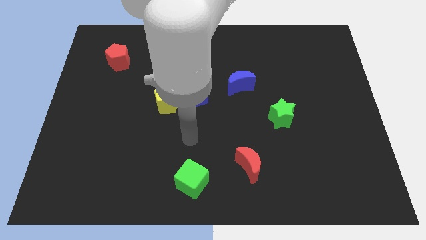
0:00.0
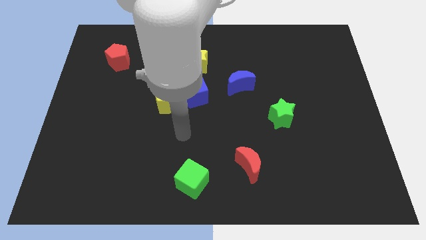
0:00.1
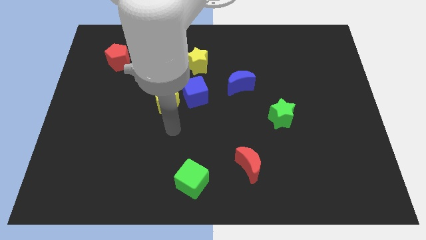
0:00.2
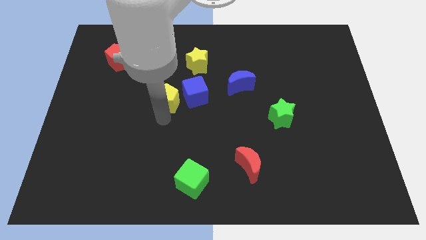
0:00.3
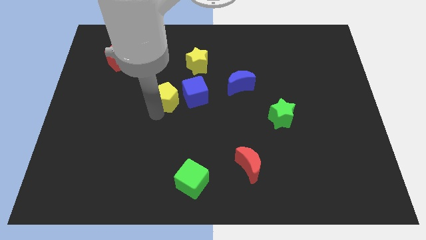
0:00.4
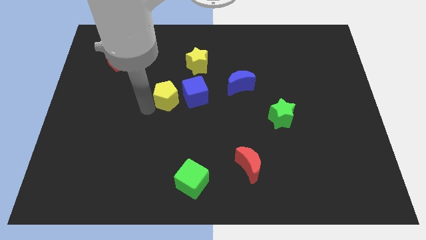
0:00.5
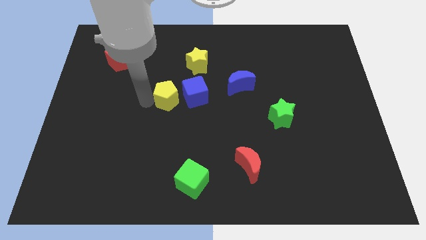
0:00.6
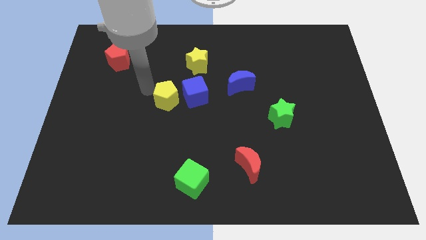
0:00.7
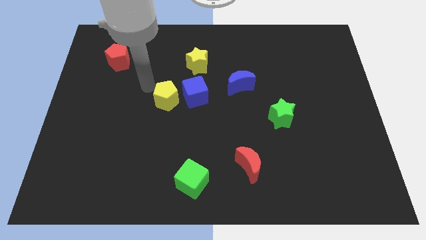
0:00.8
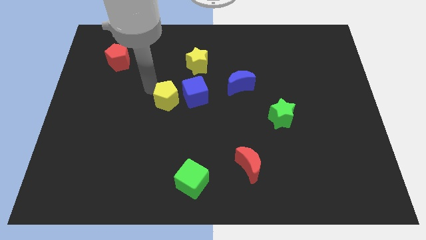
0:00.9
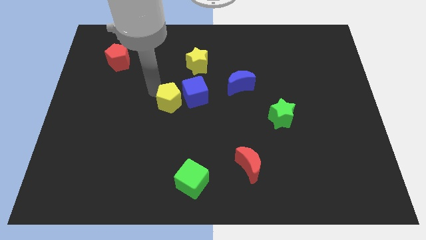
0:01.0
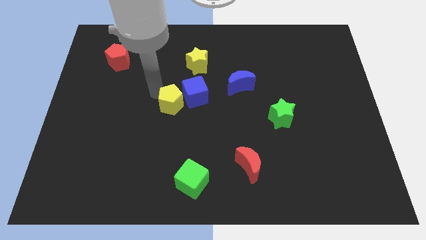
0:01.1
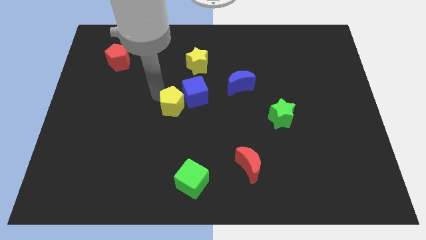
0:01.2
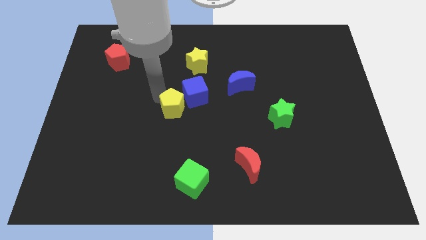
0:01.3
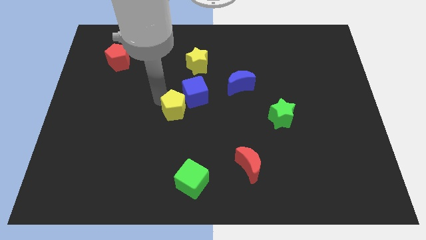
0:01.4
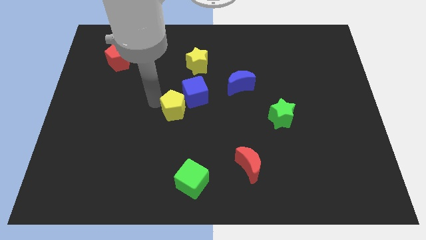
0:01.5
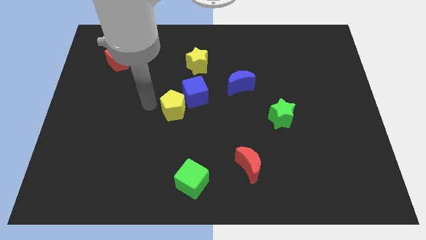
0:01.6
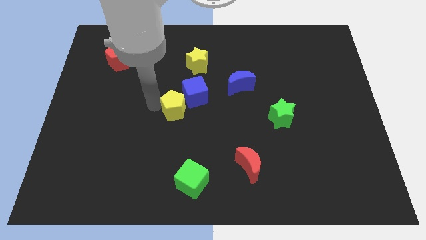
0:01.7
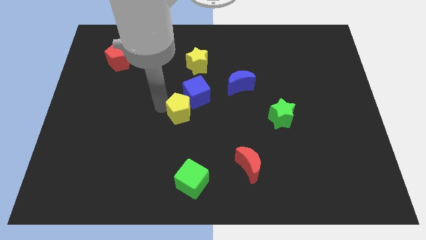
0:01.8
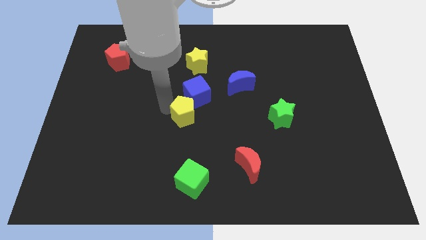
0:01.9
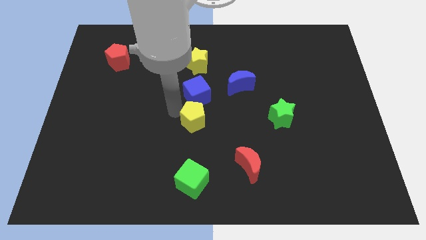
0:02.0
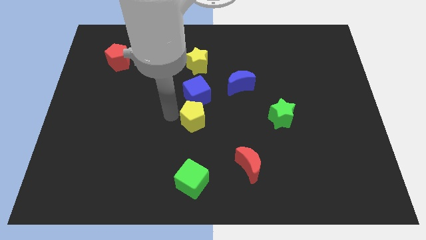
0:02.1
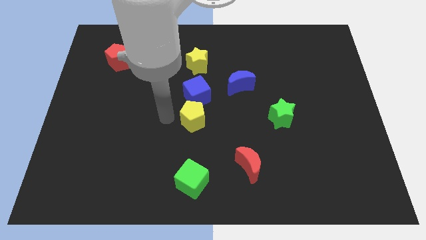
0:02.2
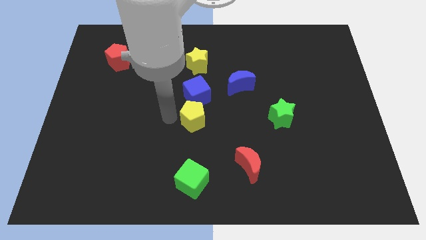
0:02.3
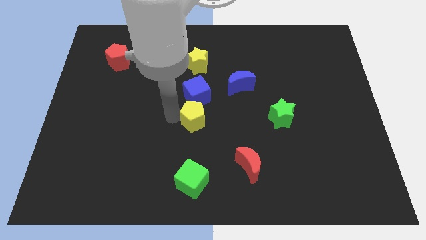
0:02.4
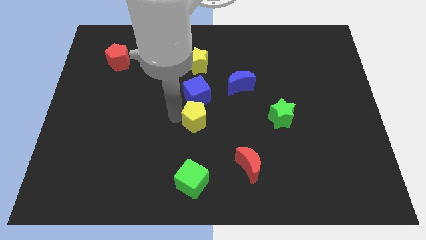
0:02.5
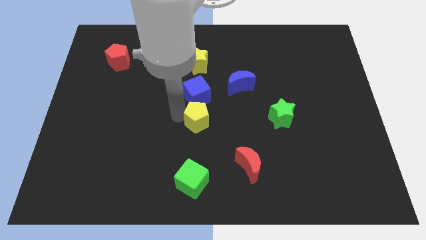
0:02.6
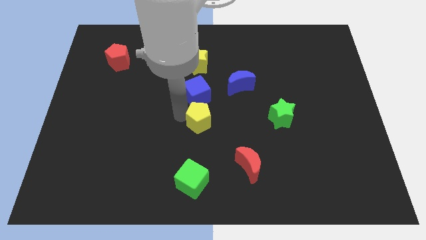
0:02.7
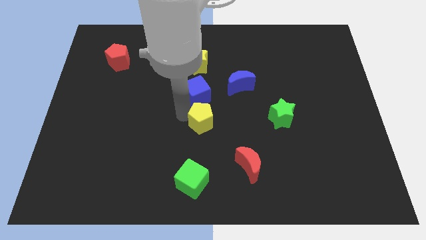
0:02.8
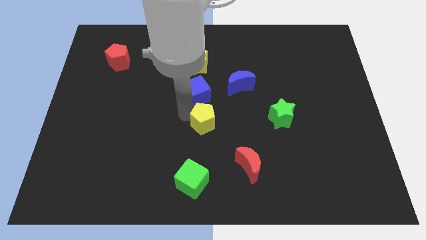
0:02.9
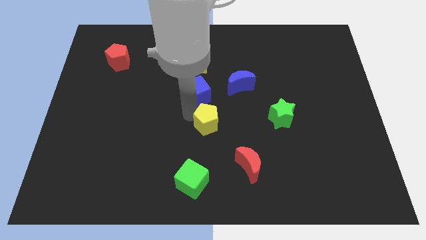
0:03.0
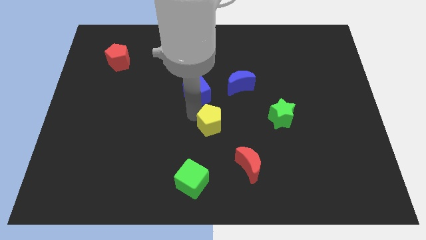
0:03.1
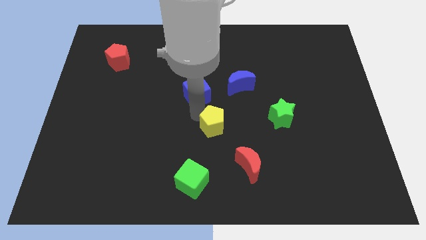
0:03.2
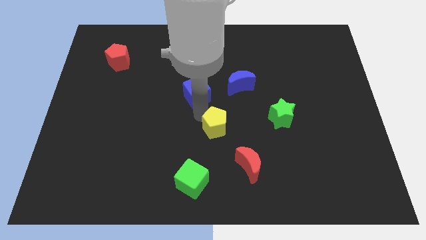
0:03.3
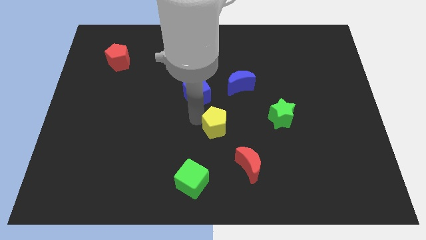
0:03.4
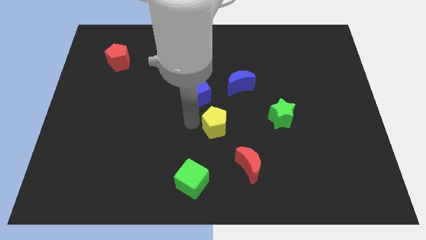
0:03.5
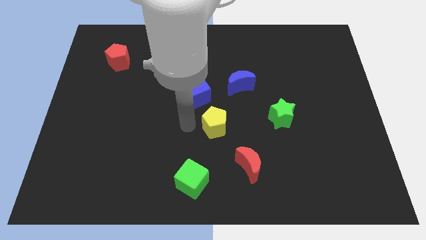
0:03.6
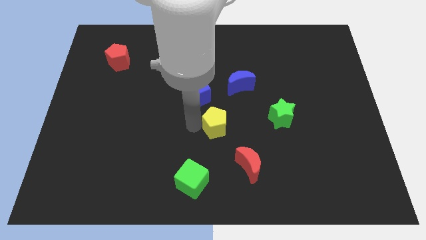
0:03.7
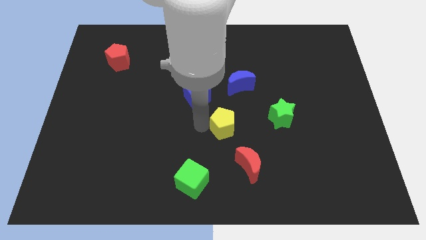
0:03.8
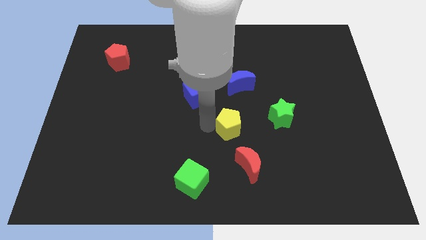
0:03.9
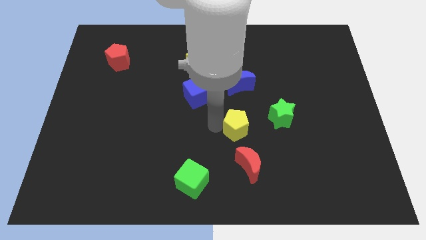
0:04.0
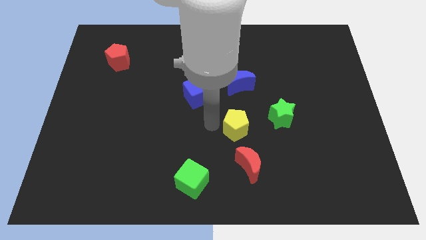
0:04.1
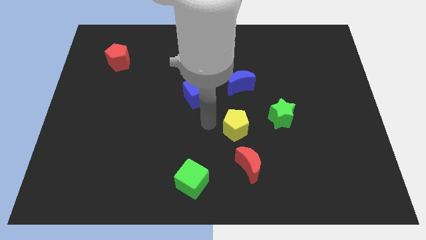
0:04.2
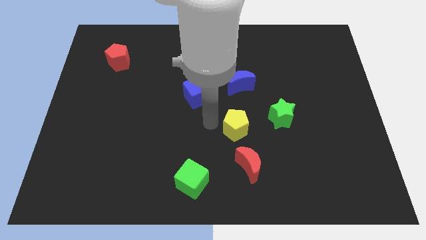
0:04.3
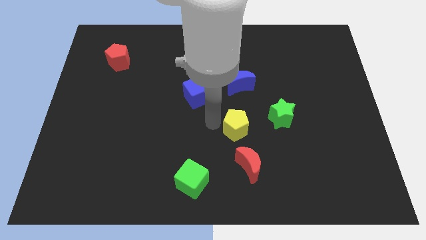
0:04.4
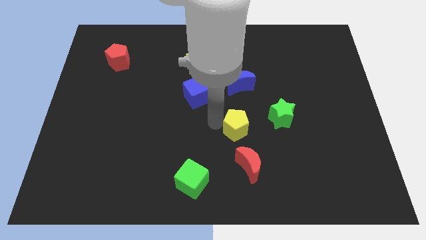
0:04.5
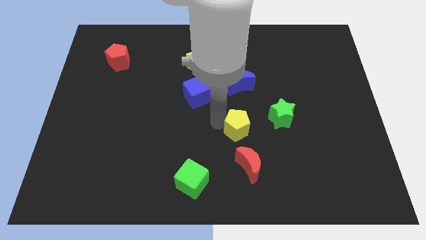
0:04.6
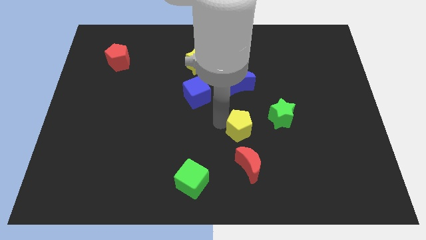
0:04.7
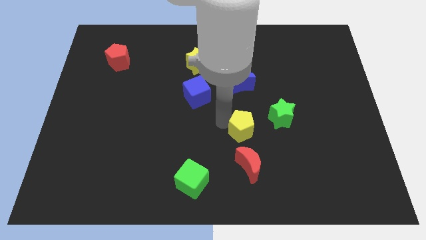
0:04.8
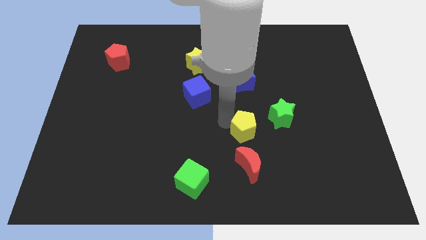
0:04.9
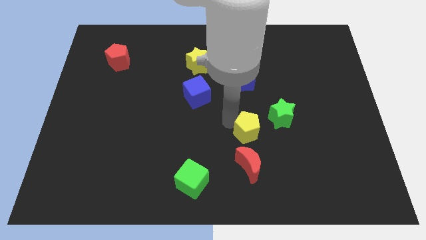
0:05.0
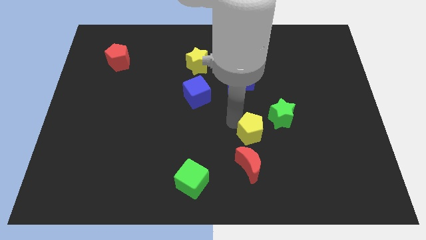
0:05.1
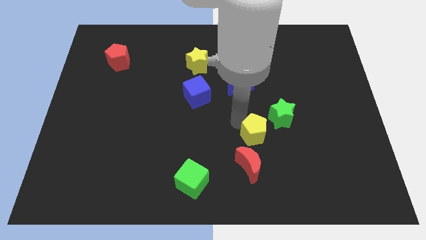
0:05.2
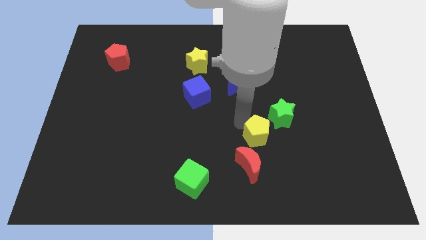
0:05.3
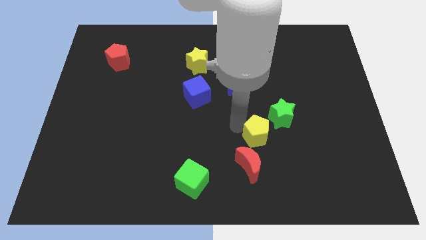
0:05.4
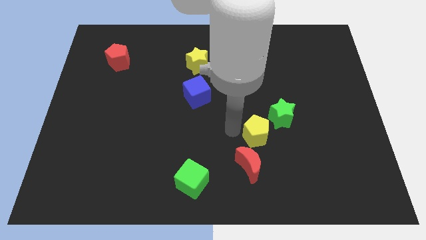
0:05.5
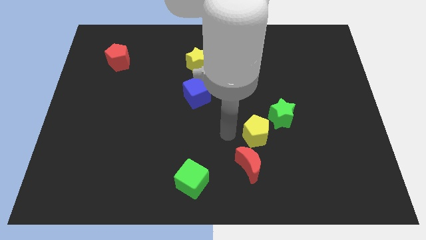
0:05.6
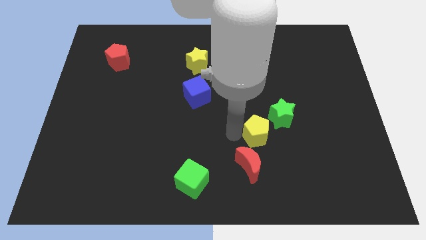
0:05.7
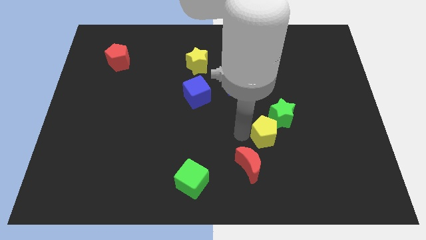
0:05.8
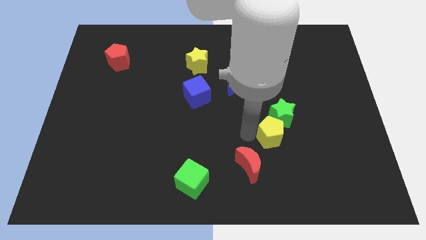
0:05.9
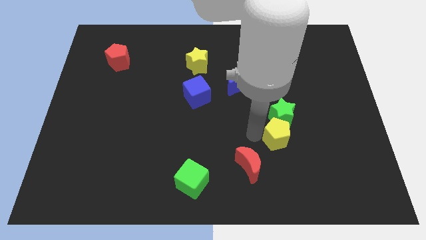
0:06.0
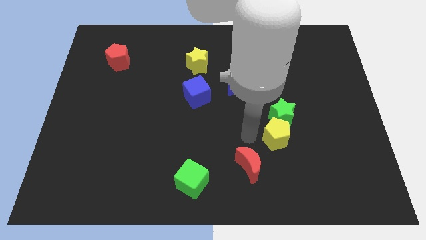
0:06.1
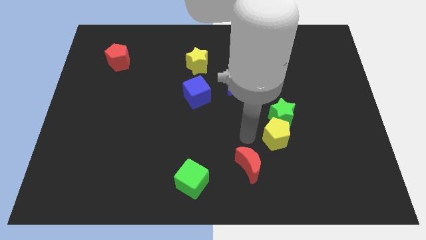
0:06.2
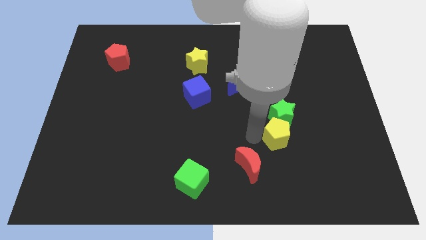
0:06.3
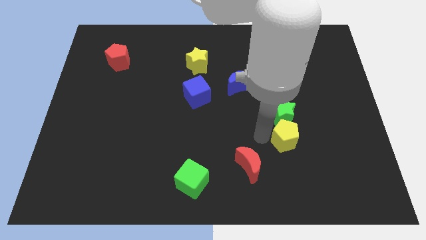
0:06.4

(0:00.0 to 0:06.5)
push the yellow pentagon to the bottom right of the green star

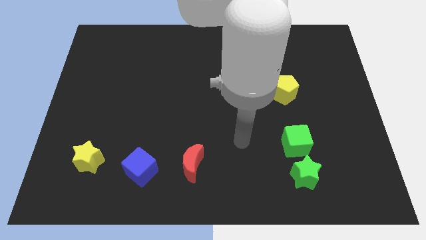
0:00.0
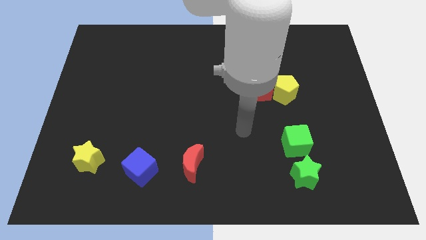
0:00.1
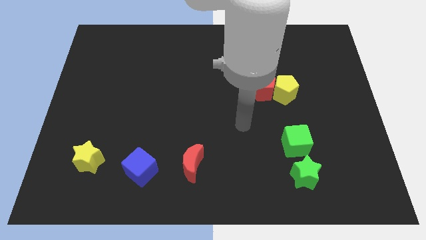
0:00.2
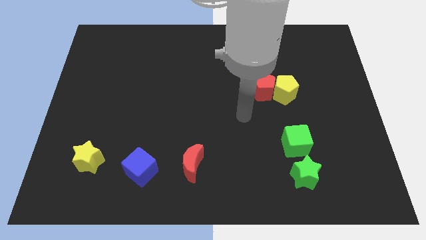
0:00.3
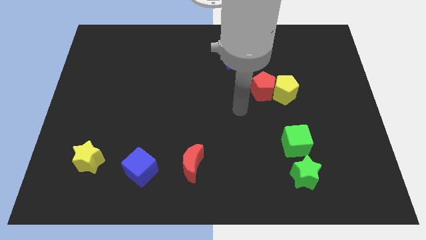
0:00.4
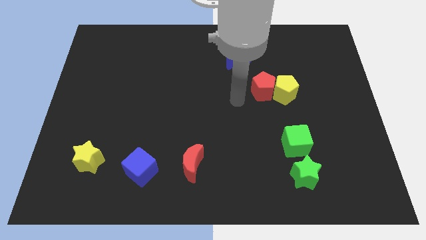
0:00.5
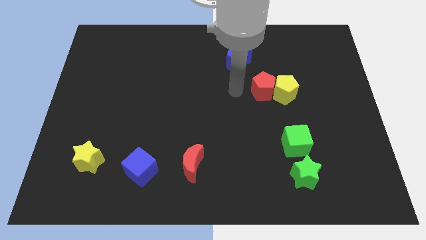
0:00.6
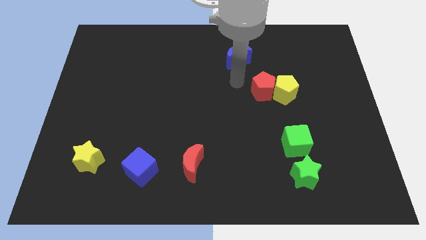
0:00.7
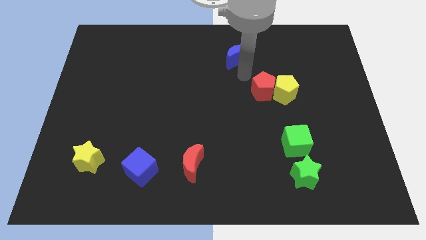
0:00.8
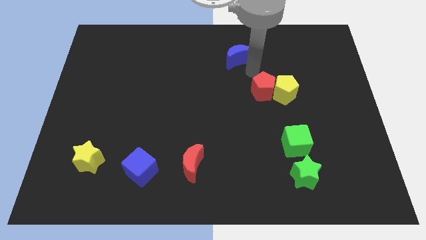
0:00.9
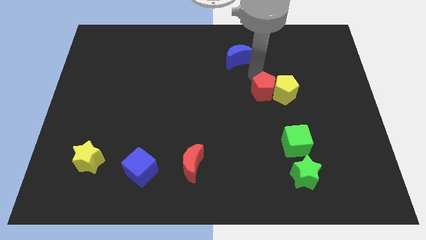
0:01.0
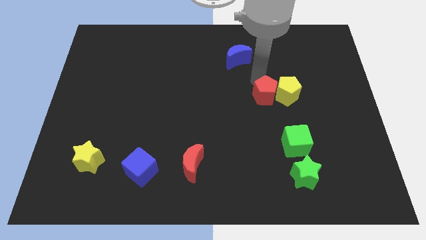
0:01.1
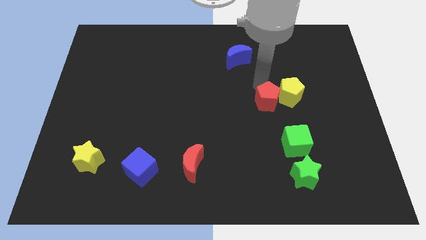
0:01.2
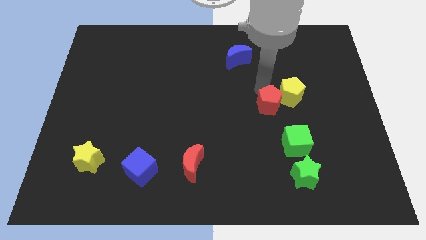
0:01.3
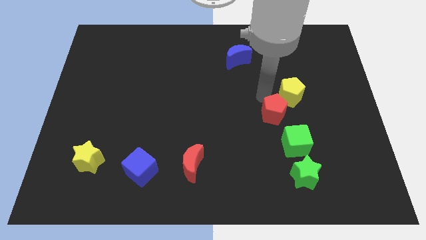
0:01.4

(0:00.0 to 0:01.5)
push the red pentagon to the bottom of the yellow pentagon
